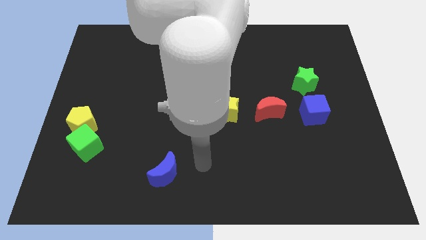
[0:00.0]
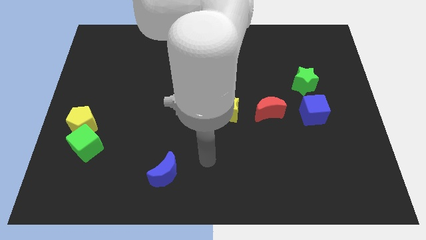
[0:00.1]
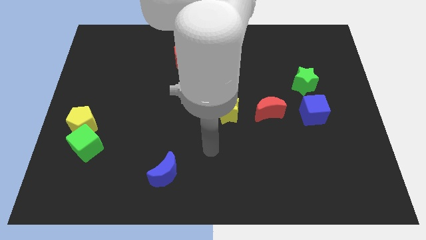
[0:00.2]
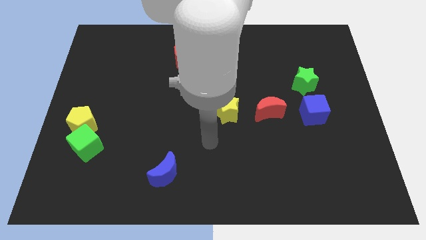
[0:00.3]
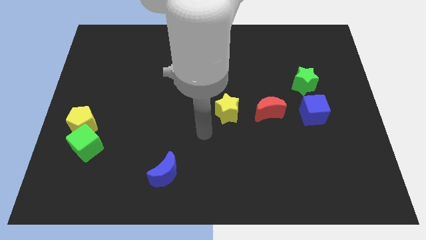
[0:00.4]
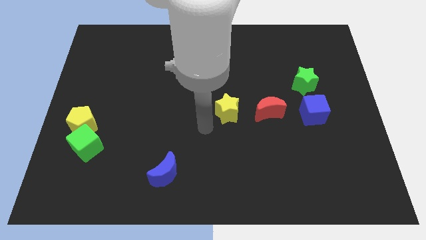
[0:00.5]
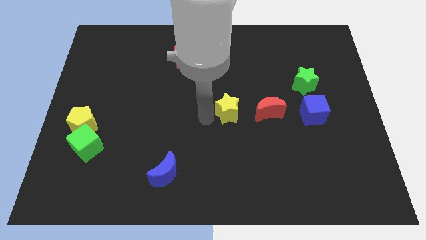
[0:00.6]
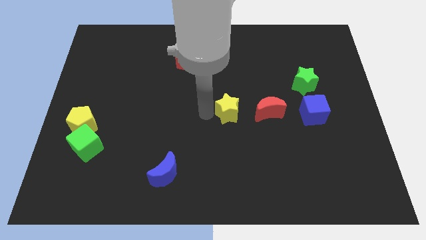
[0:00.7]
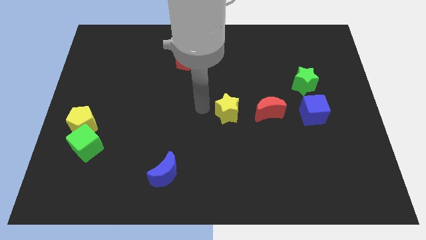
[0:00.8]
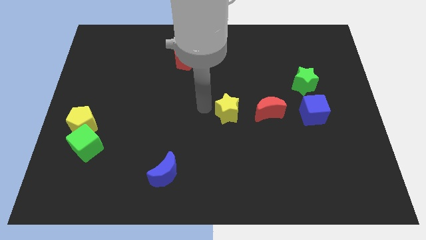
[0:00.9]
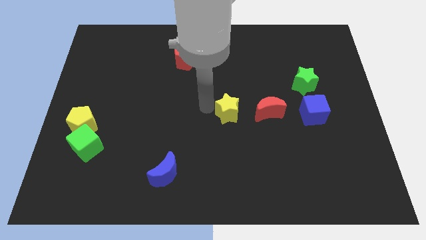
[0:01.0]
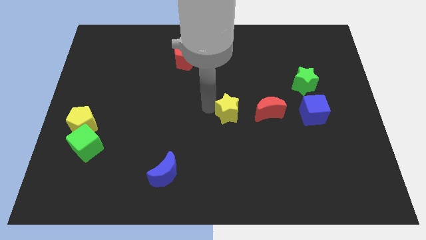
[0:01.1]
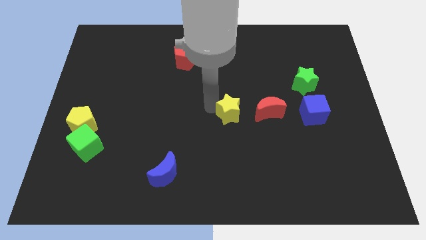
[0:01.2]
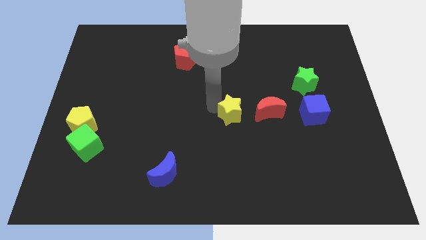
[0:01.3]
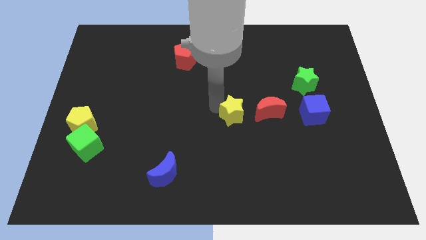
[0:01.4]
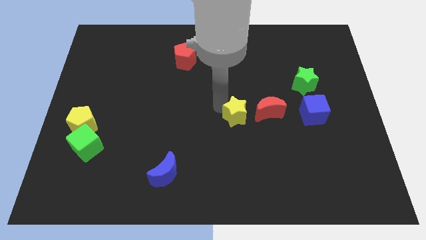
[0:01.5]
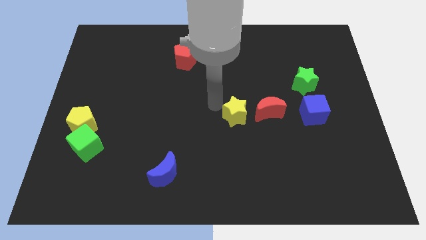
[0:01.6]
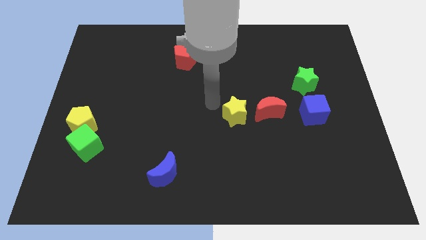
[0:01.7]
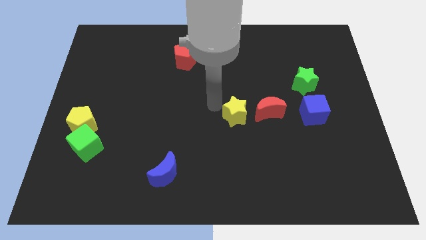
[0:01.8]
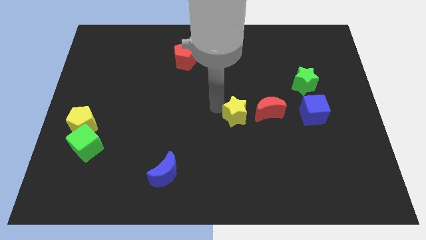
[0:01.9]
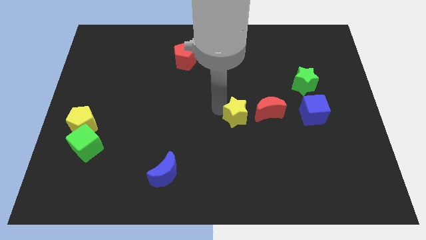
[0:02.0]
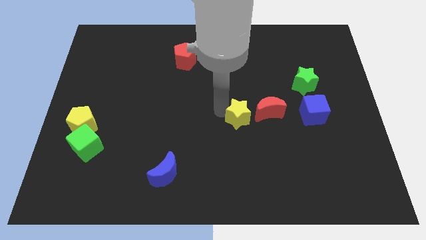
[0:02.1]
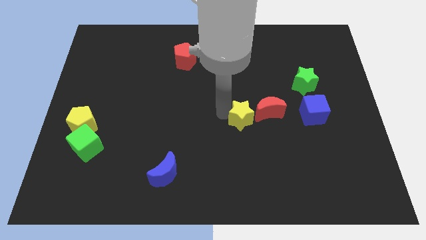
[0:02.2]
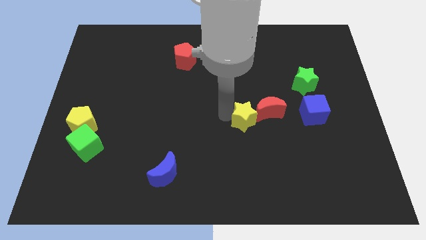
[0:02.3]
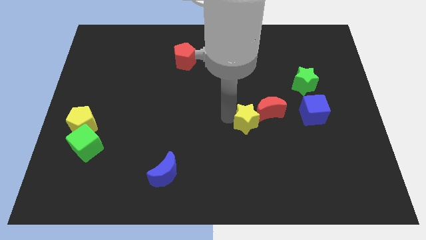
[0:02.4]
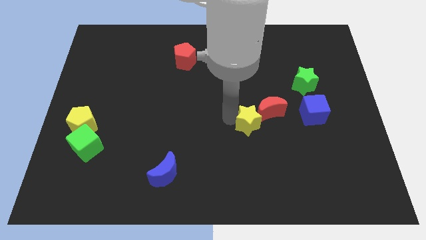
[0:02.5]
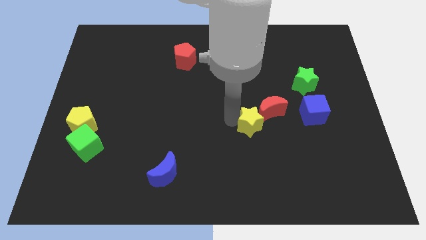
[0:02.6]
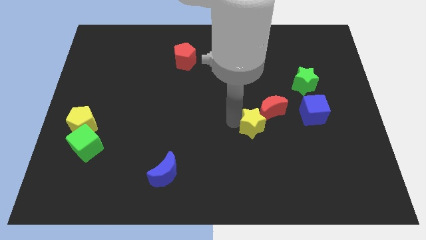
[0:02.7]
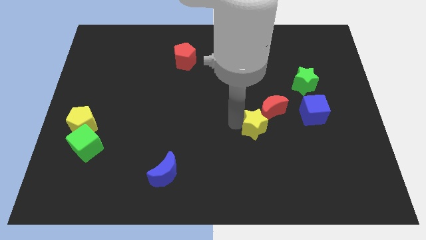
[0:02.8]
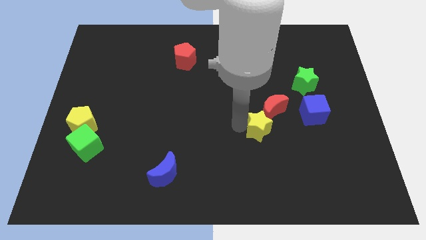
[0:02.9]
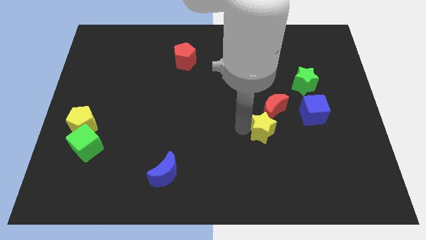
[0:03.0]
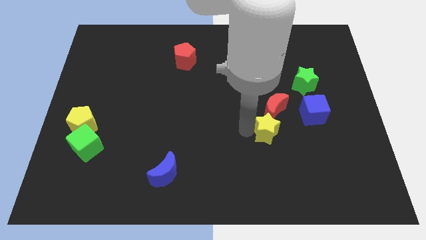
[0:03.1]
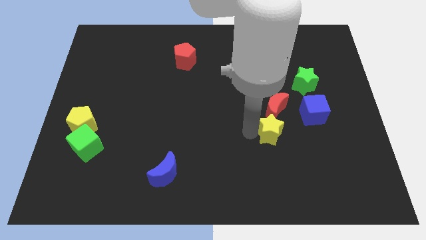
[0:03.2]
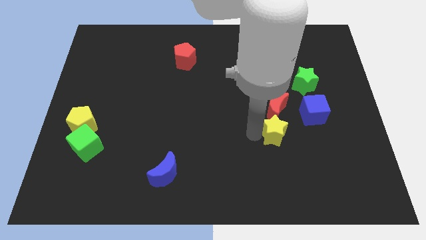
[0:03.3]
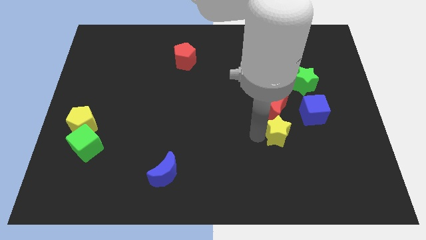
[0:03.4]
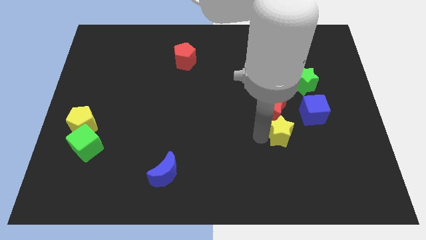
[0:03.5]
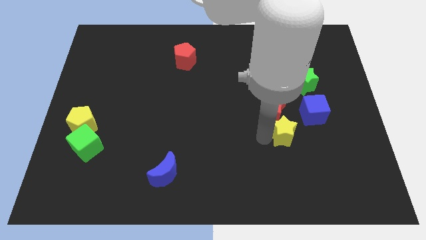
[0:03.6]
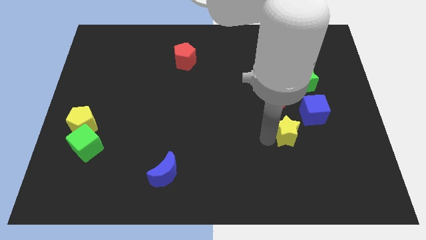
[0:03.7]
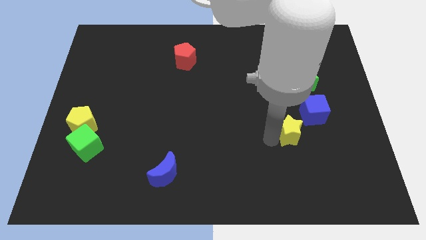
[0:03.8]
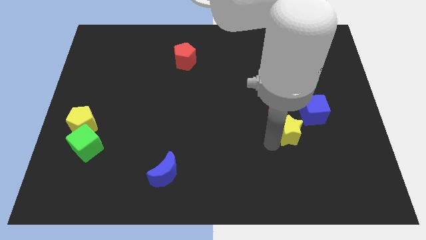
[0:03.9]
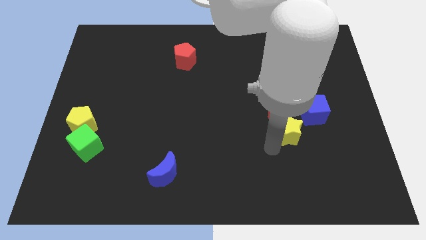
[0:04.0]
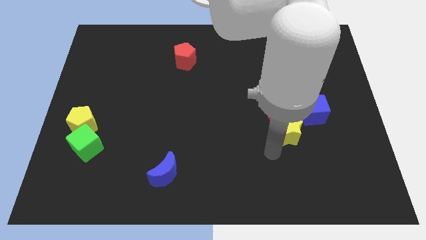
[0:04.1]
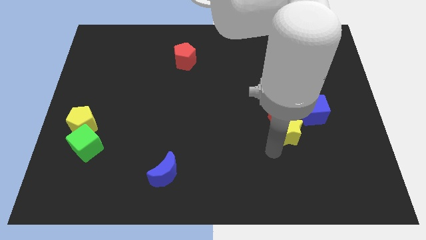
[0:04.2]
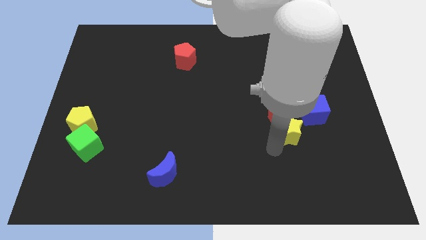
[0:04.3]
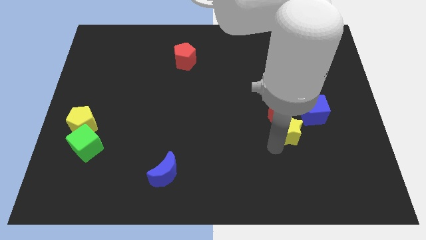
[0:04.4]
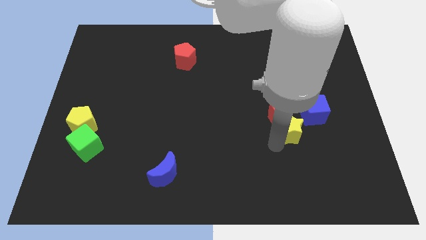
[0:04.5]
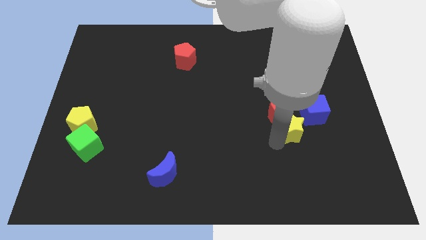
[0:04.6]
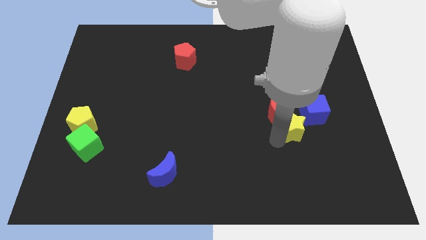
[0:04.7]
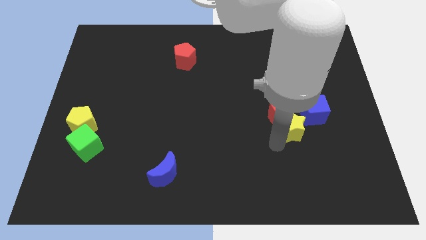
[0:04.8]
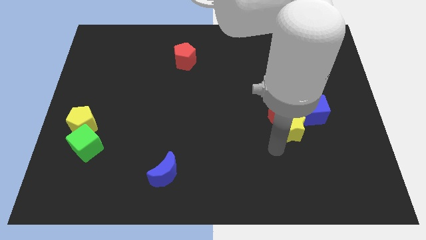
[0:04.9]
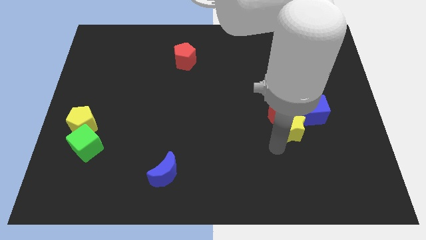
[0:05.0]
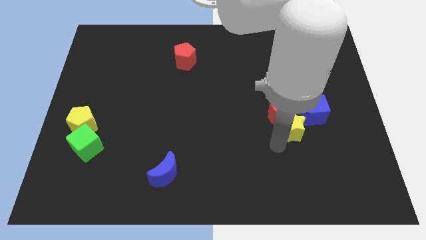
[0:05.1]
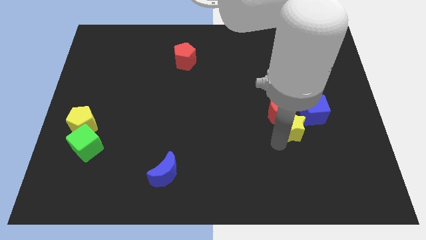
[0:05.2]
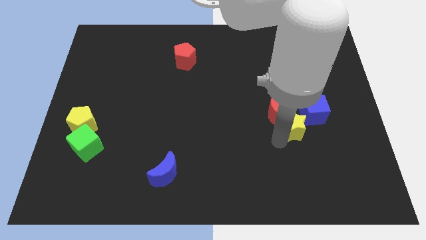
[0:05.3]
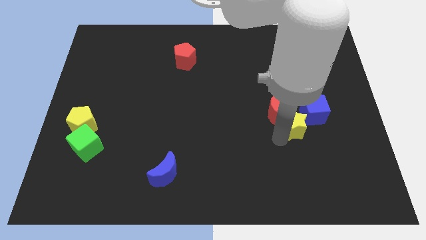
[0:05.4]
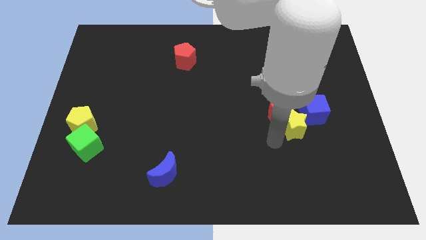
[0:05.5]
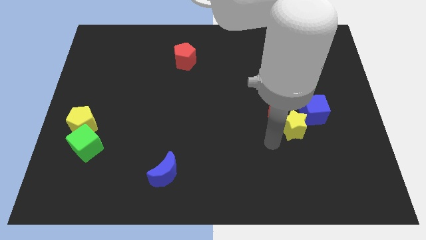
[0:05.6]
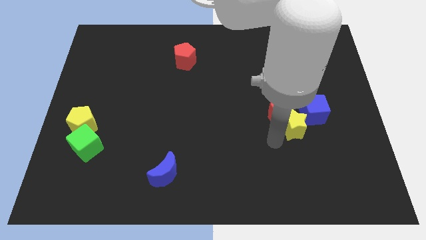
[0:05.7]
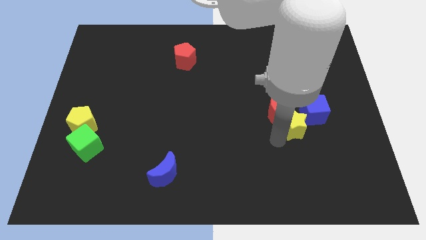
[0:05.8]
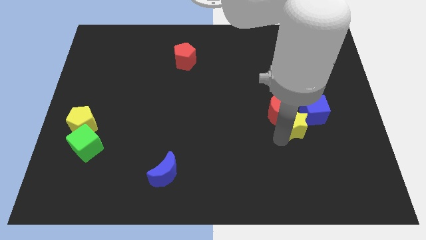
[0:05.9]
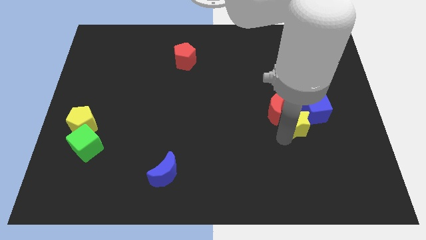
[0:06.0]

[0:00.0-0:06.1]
put the yellow star towards the blue cube

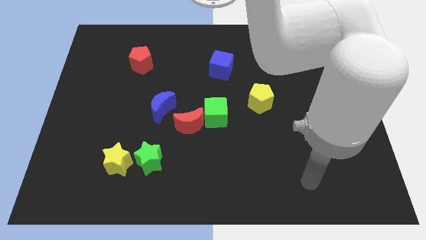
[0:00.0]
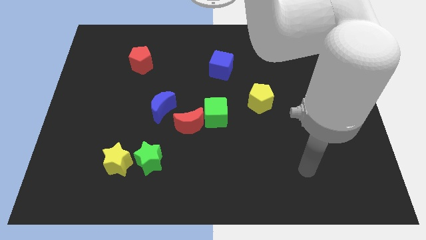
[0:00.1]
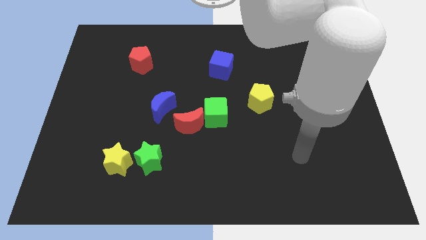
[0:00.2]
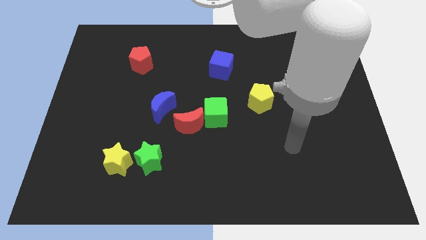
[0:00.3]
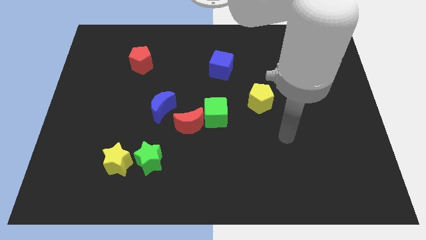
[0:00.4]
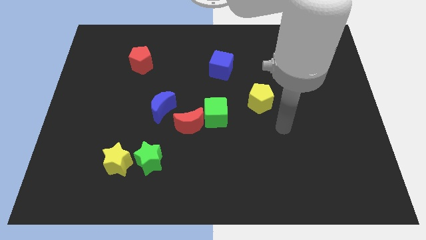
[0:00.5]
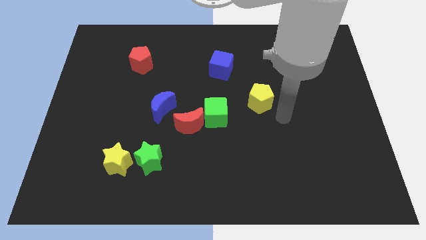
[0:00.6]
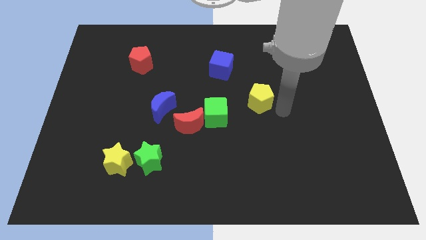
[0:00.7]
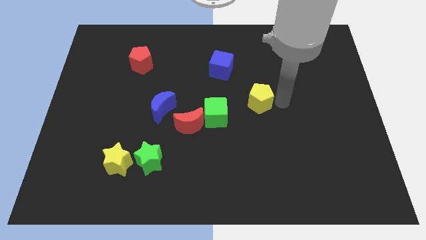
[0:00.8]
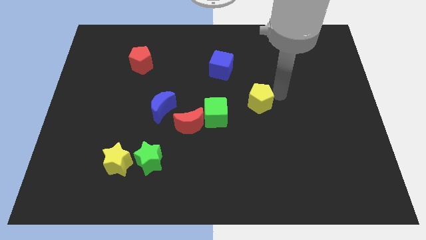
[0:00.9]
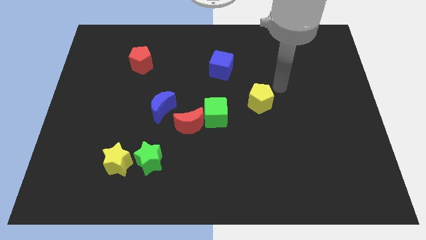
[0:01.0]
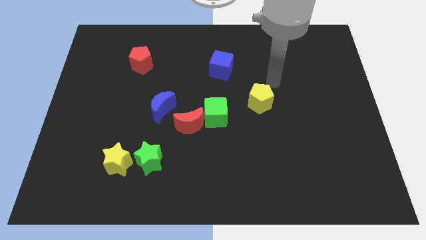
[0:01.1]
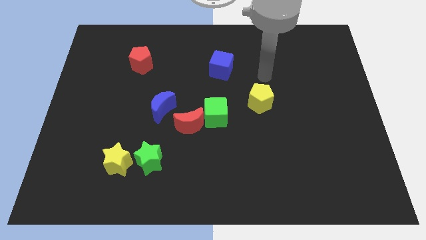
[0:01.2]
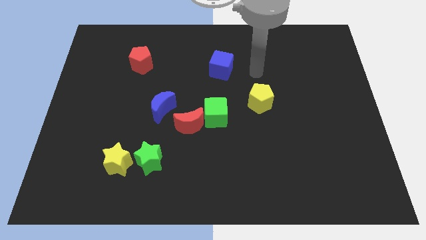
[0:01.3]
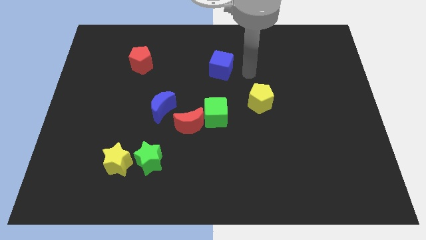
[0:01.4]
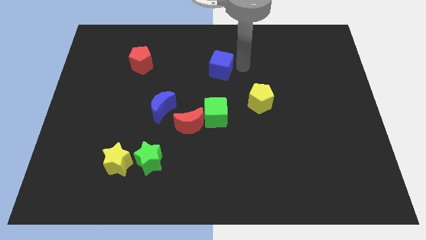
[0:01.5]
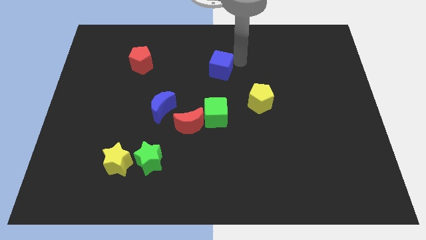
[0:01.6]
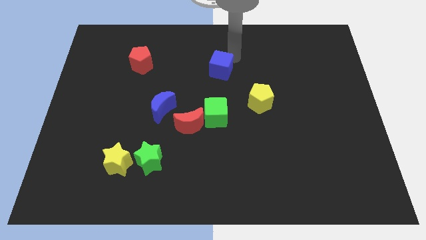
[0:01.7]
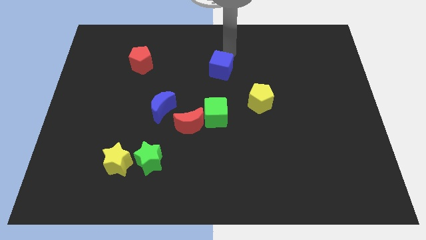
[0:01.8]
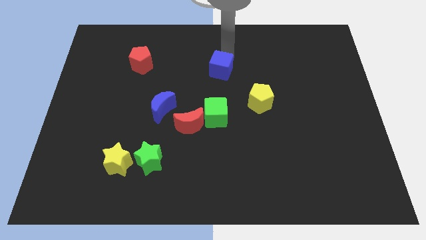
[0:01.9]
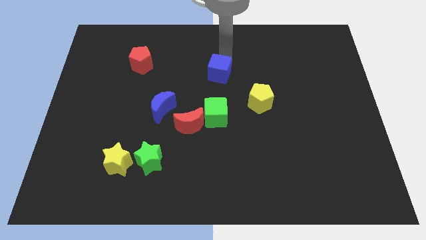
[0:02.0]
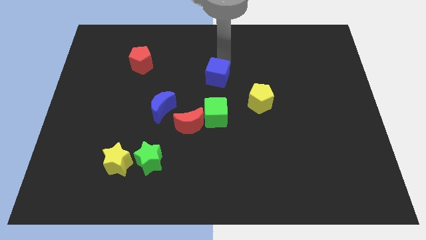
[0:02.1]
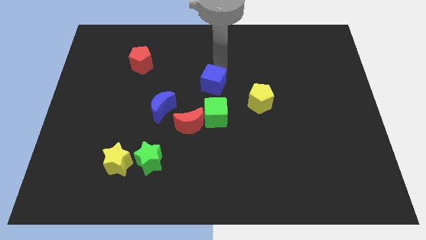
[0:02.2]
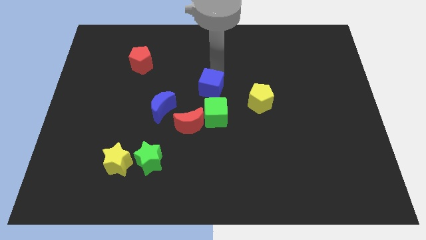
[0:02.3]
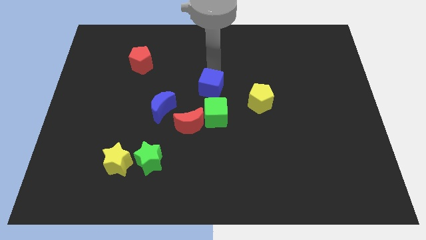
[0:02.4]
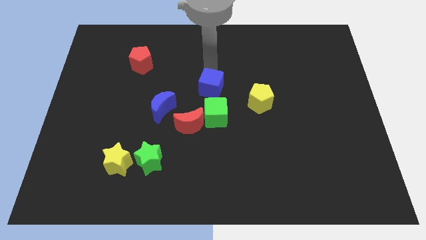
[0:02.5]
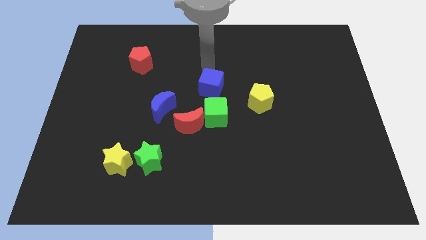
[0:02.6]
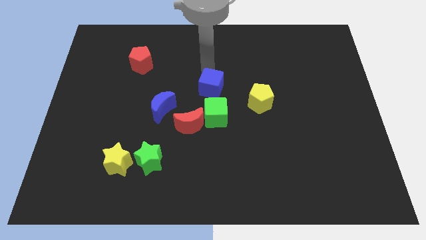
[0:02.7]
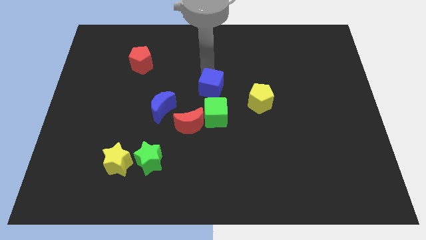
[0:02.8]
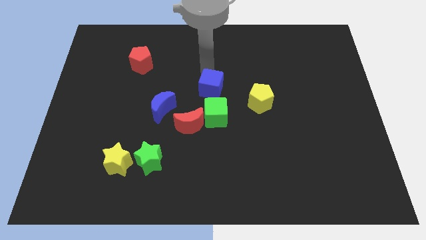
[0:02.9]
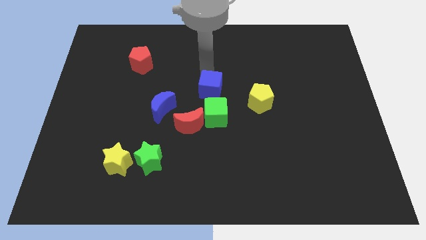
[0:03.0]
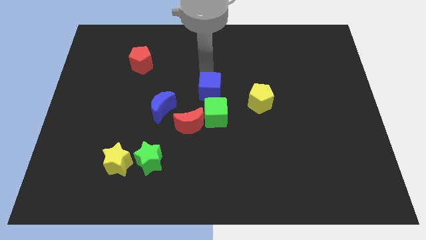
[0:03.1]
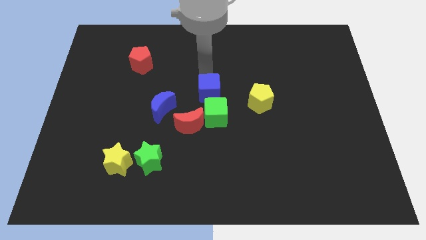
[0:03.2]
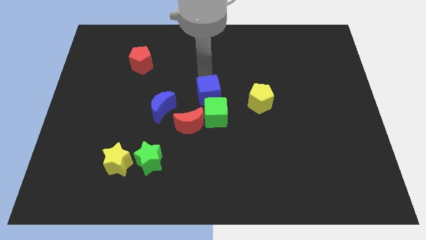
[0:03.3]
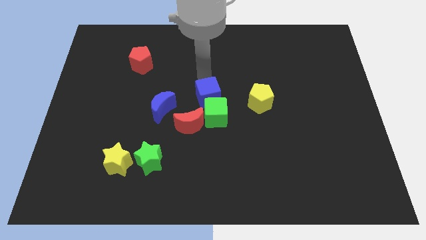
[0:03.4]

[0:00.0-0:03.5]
slide the blue cube next to the green cube
